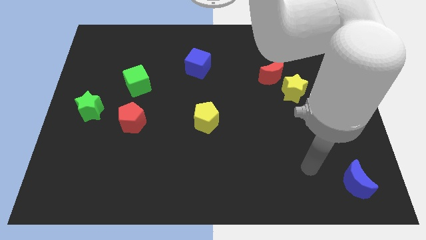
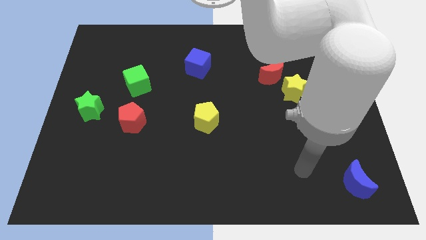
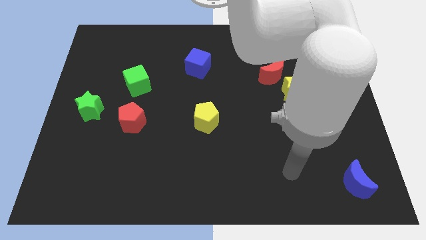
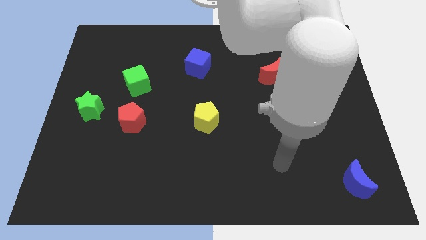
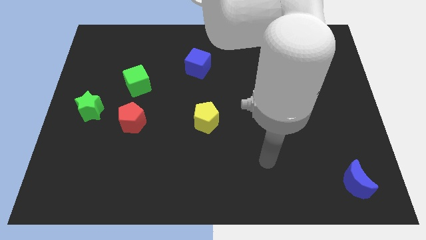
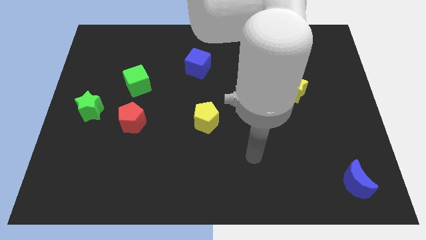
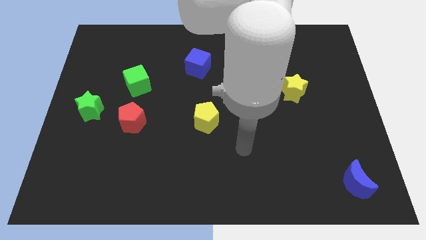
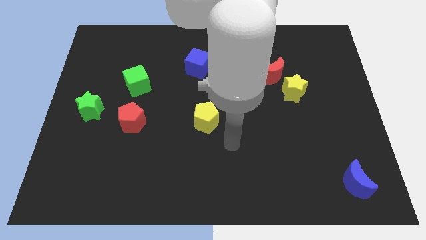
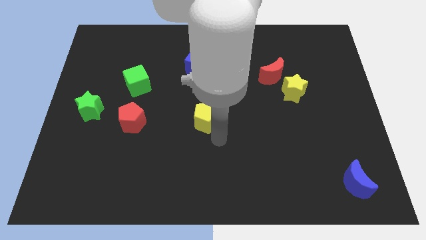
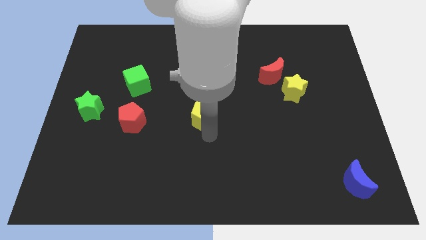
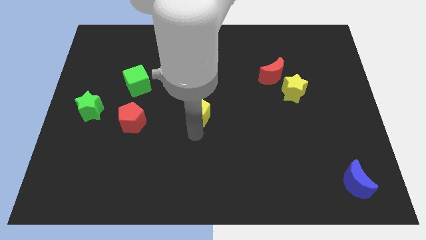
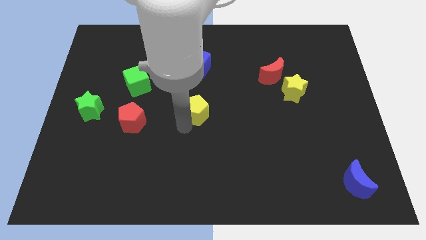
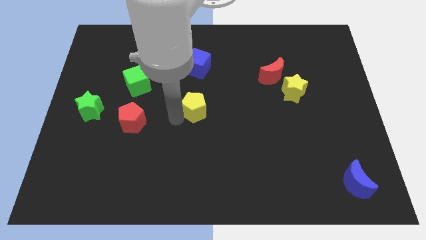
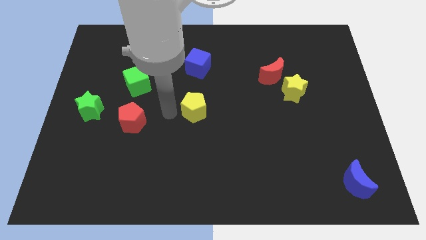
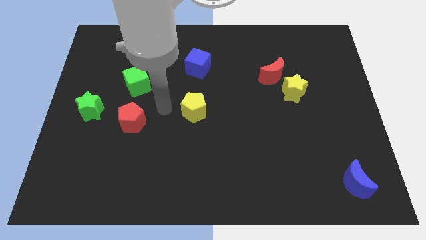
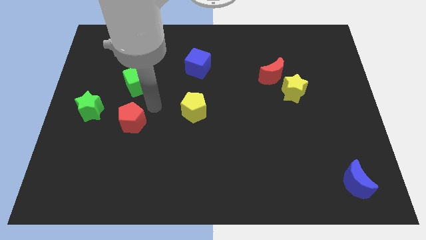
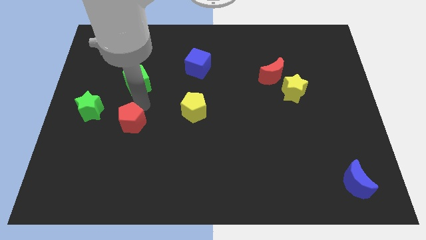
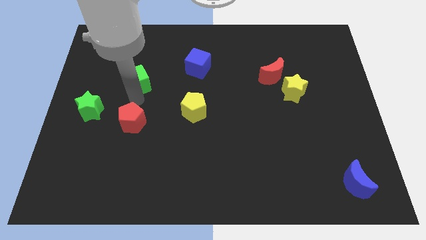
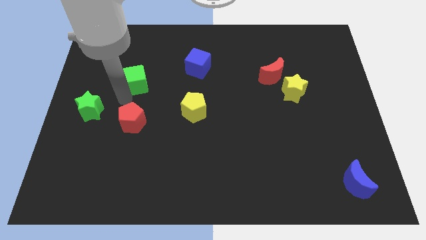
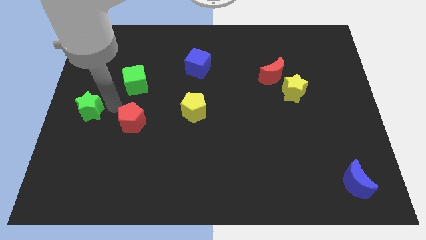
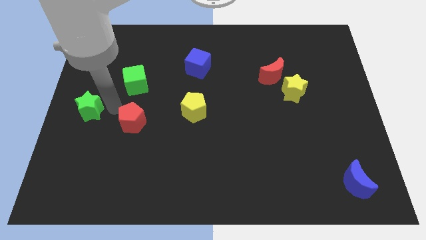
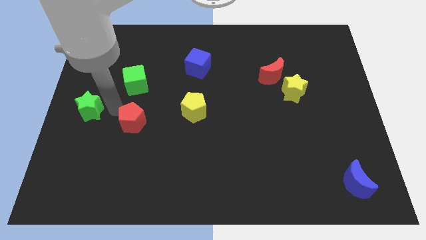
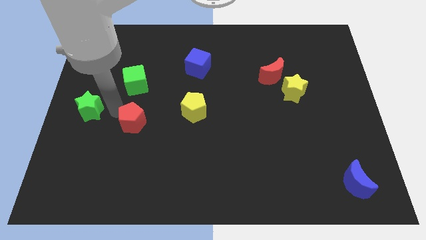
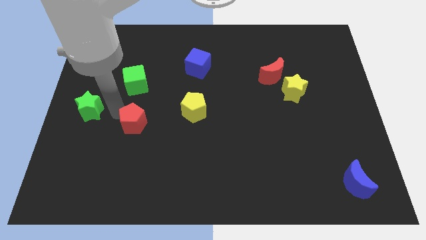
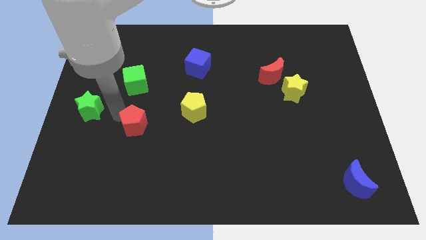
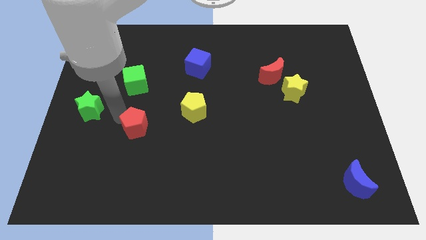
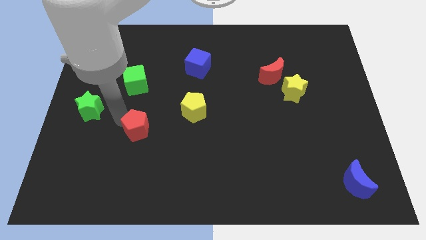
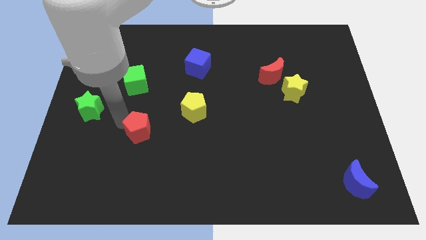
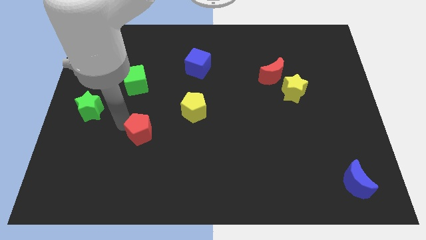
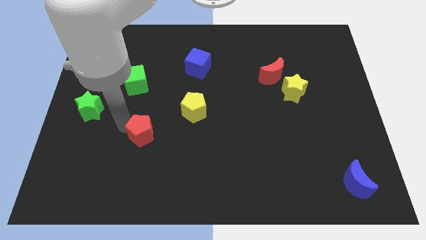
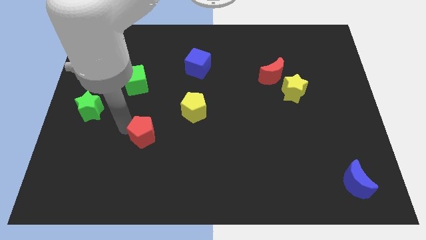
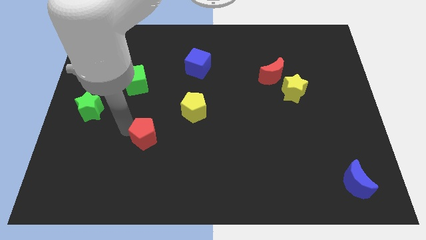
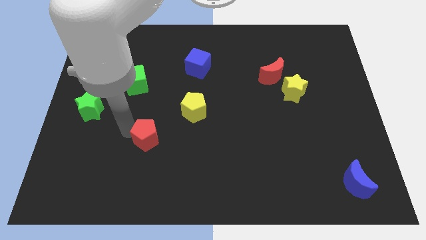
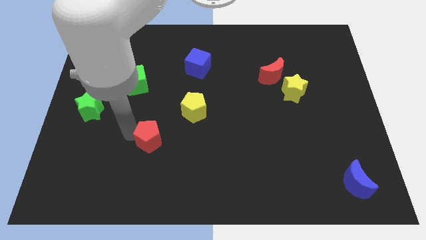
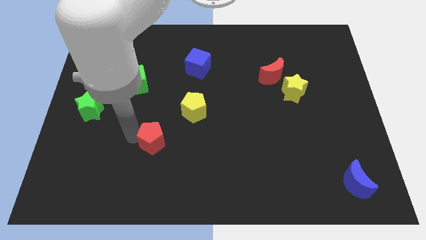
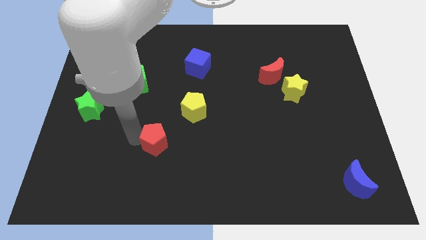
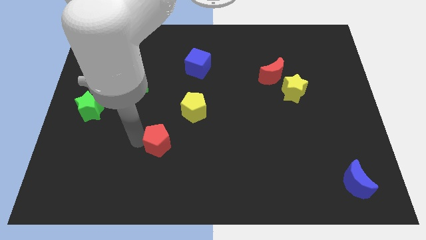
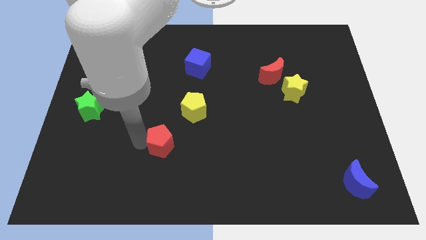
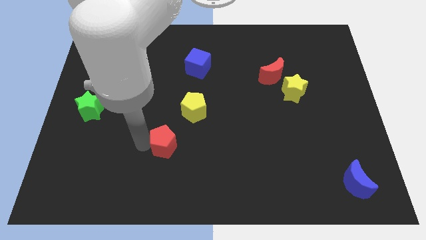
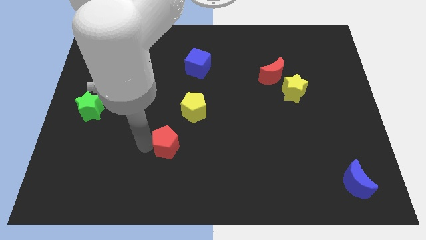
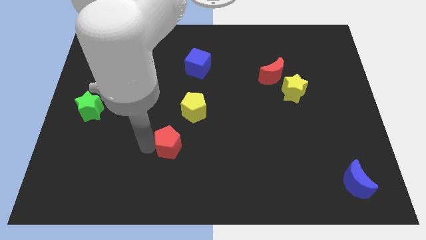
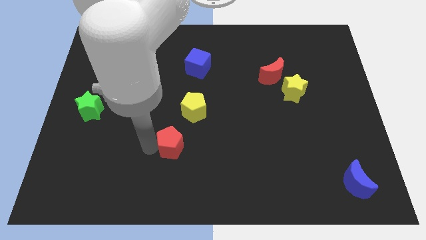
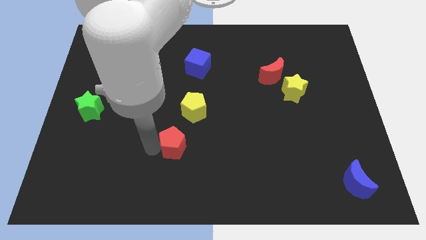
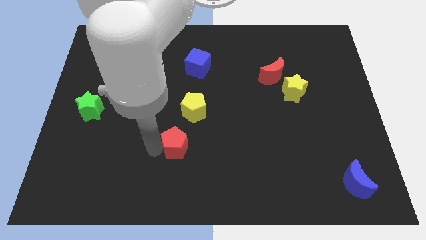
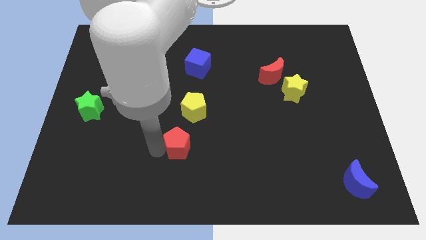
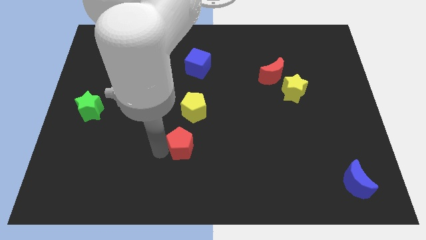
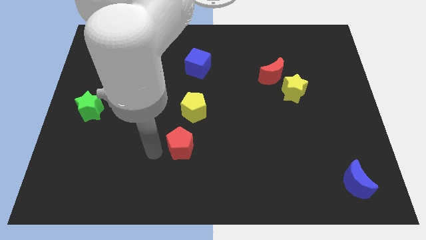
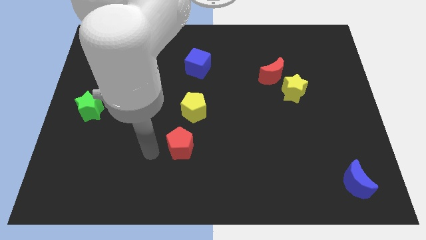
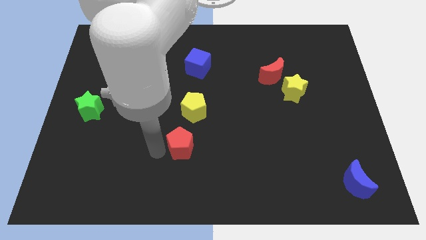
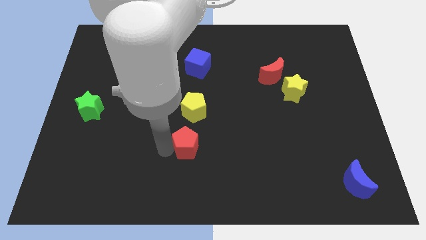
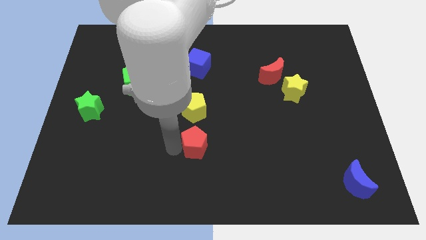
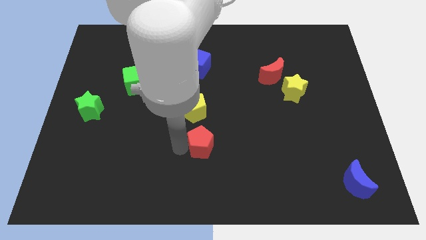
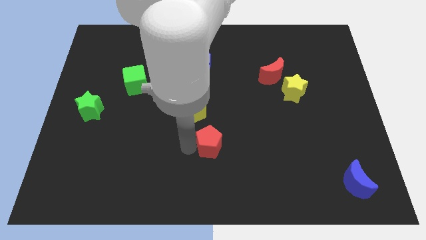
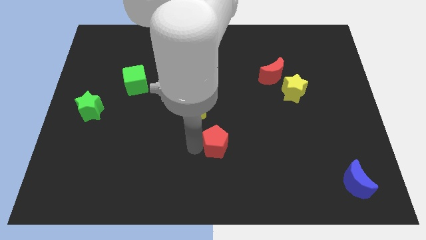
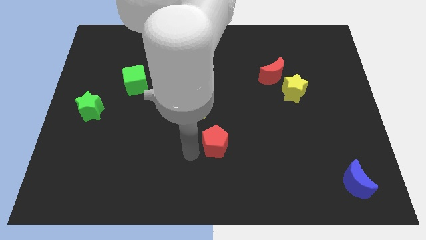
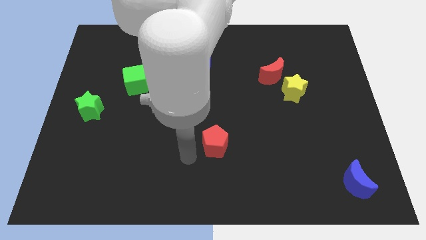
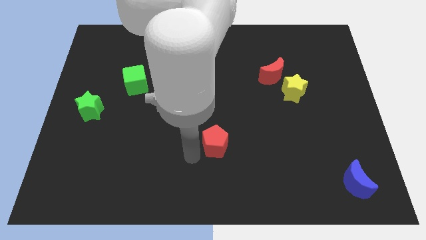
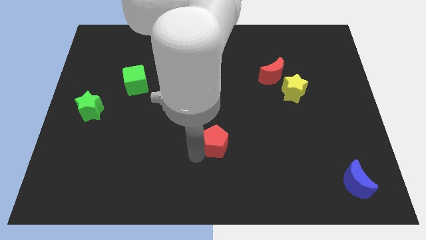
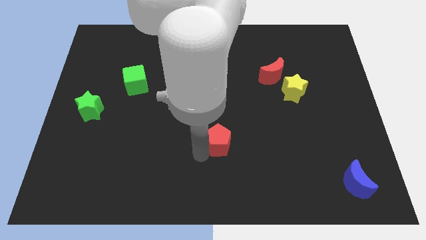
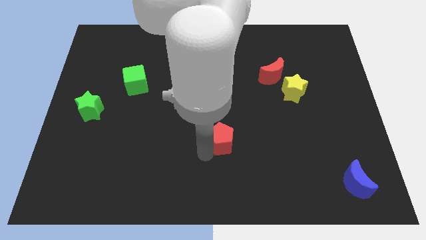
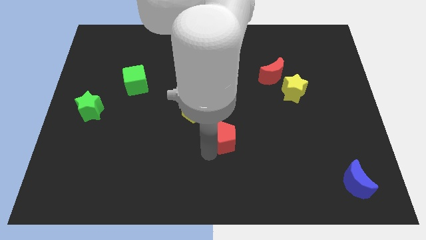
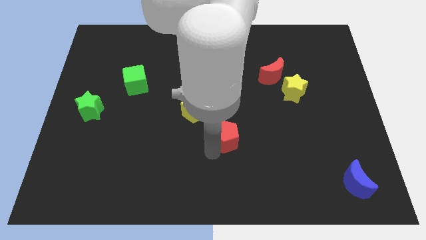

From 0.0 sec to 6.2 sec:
push the red pentagon right

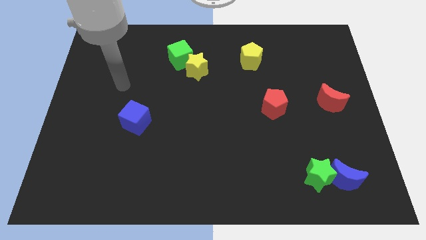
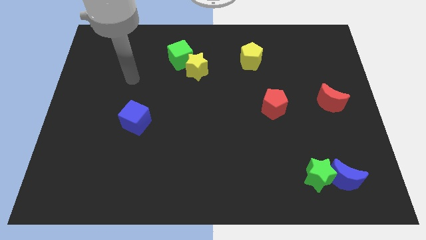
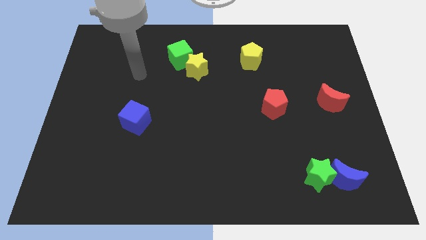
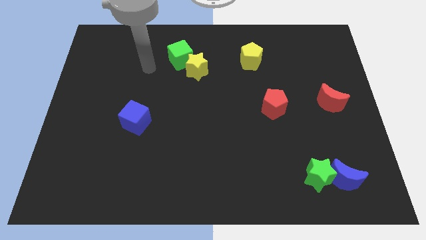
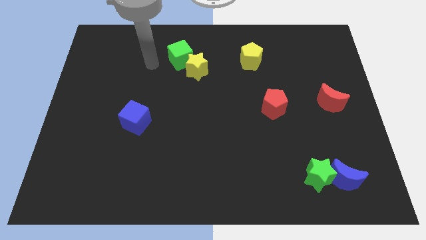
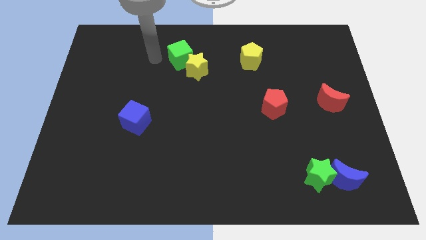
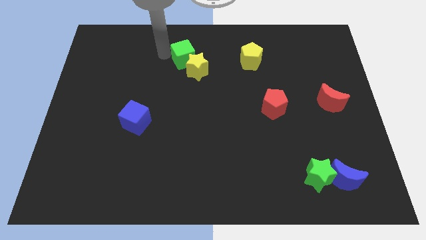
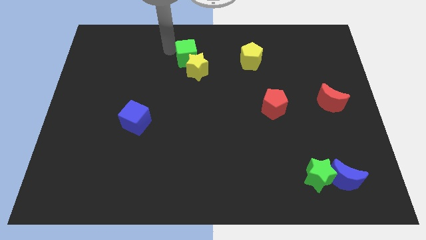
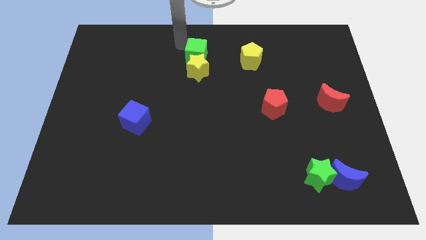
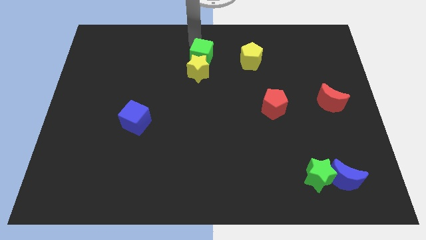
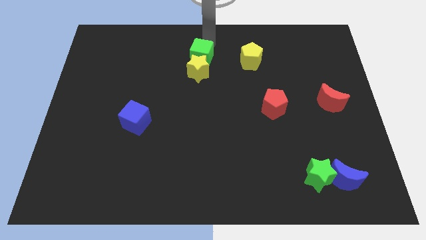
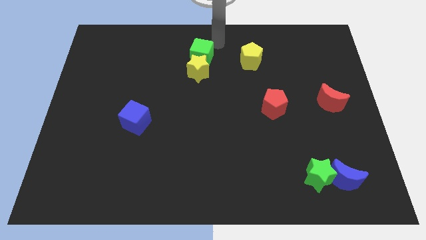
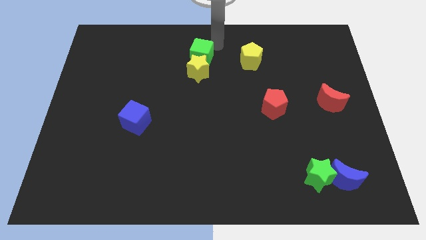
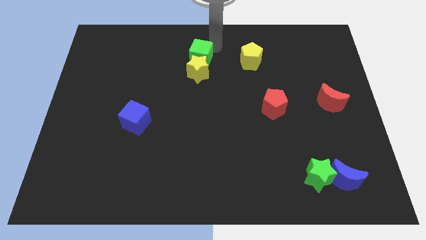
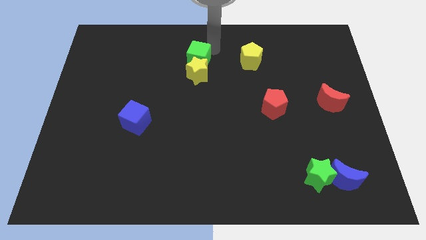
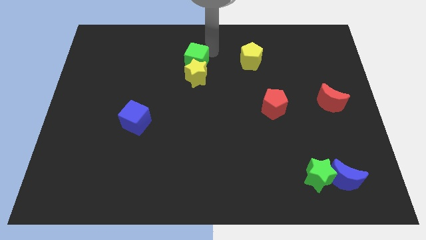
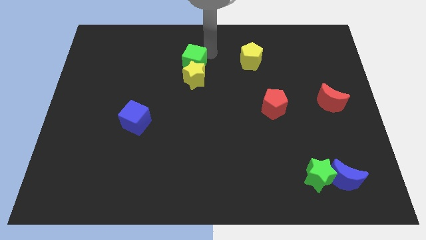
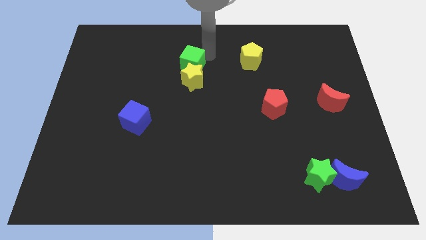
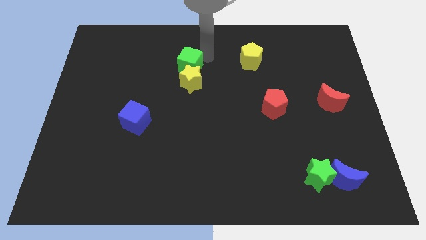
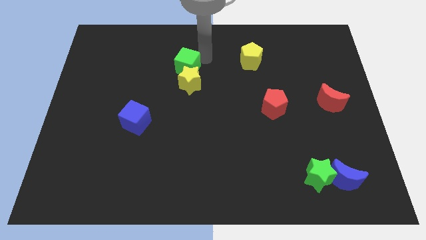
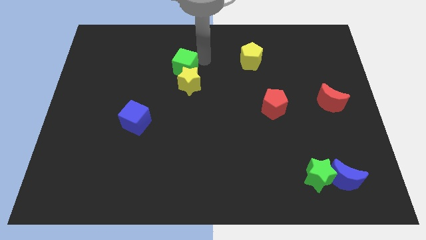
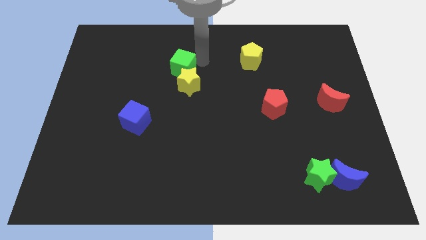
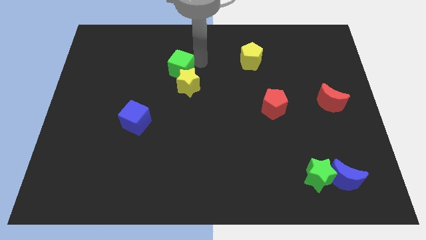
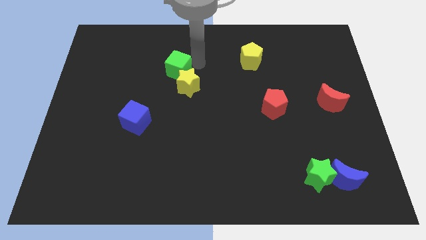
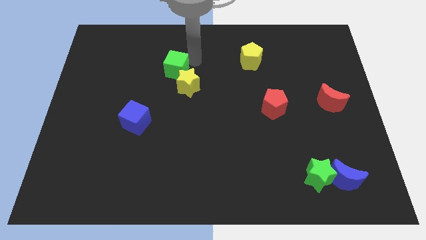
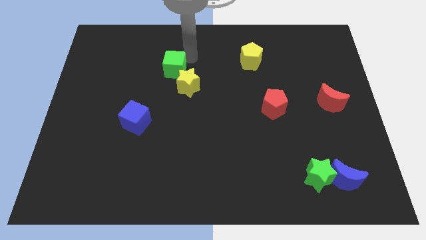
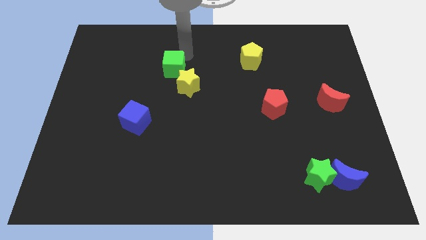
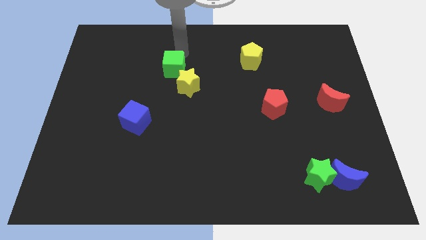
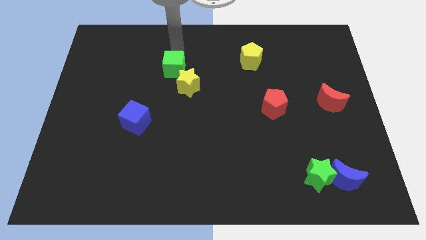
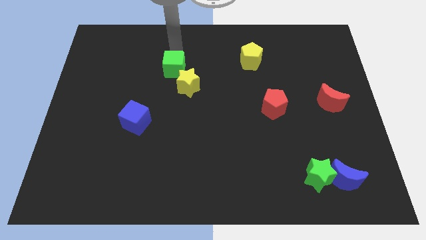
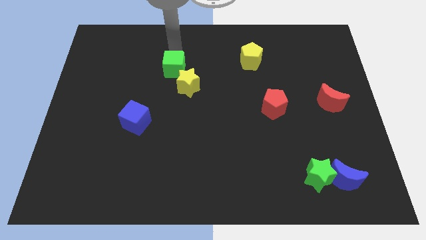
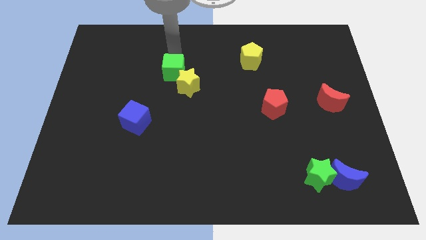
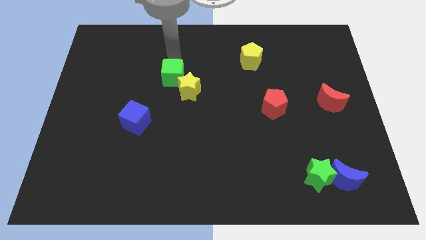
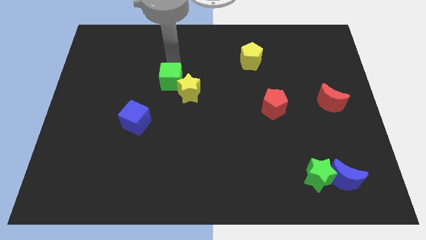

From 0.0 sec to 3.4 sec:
slightly move the green cube downwards
